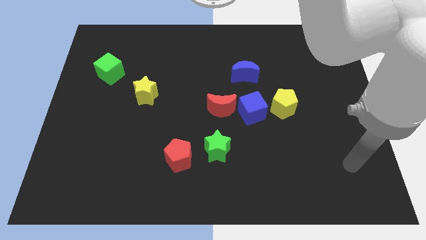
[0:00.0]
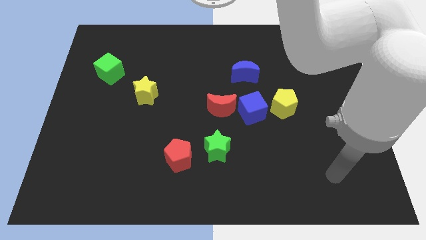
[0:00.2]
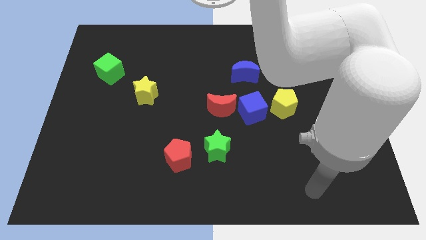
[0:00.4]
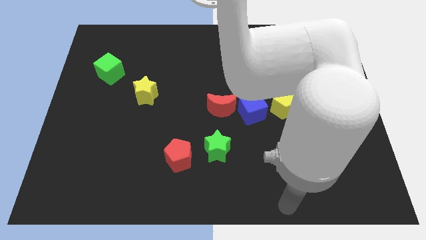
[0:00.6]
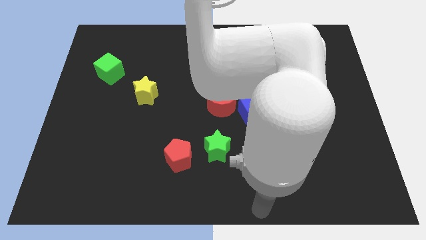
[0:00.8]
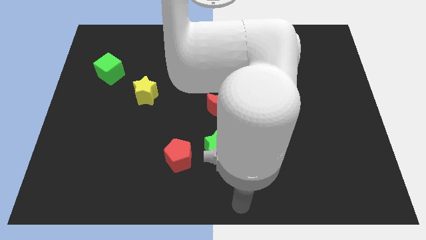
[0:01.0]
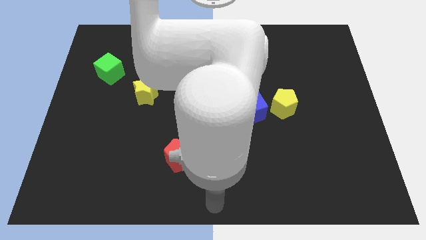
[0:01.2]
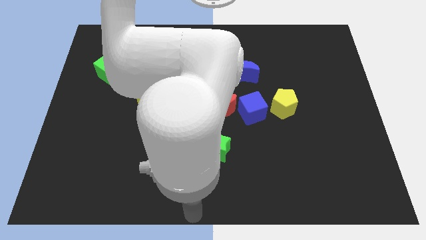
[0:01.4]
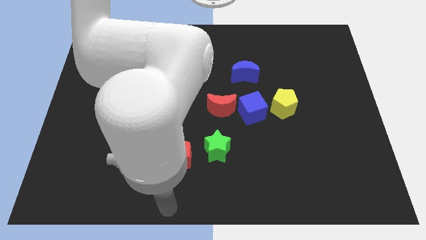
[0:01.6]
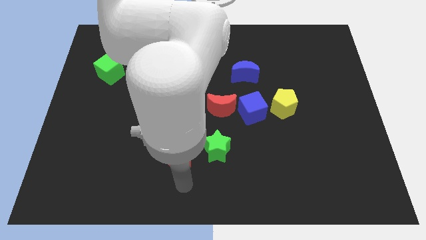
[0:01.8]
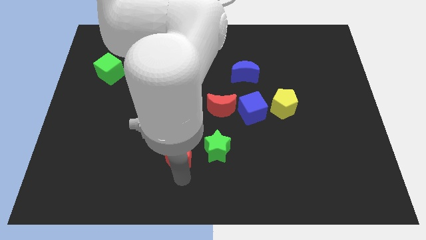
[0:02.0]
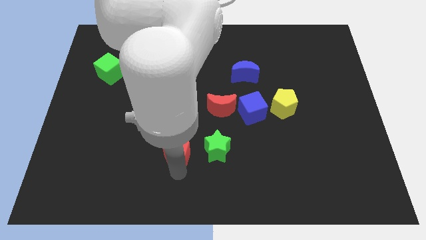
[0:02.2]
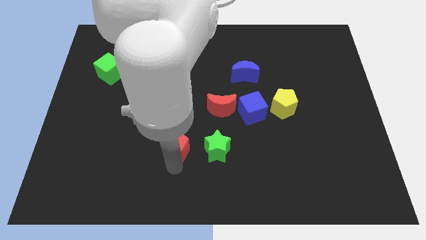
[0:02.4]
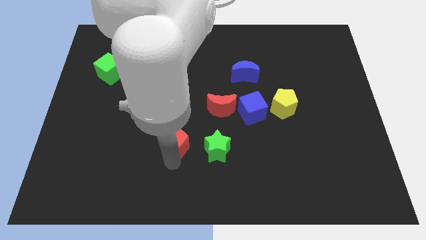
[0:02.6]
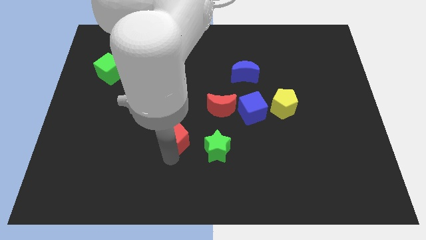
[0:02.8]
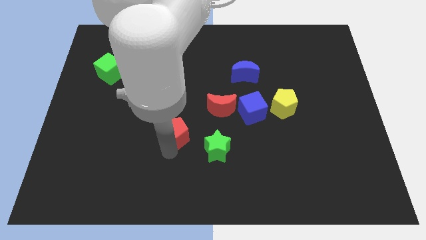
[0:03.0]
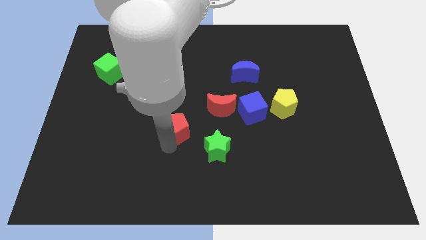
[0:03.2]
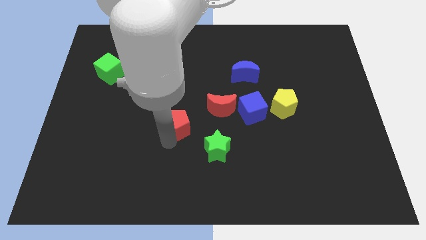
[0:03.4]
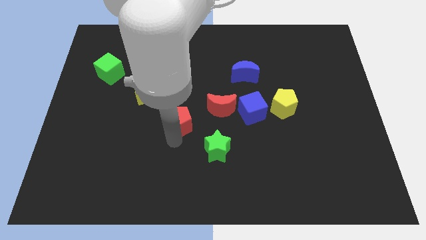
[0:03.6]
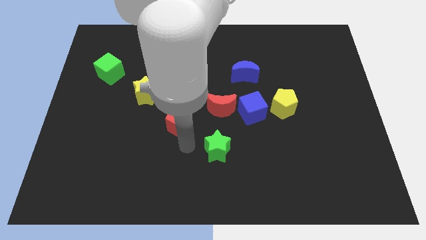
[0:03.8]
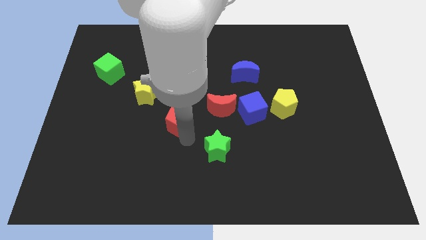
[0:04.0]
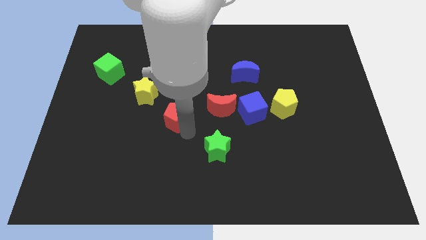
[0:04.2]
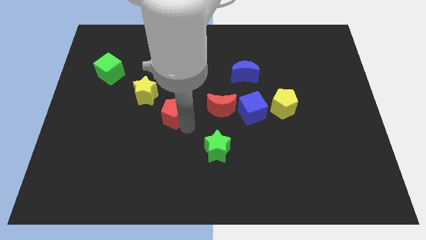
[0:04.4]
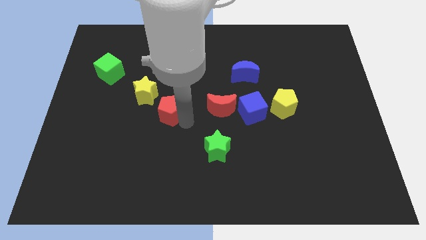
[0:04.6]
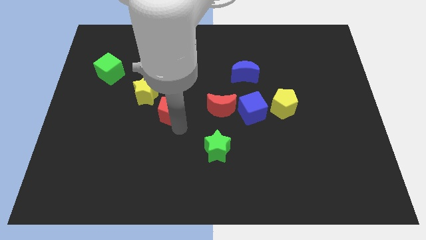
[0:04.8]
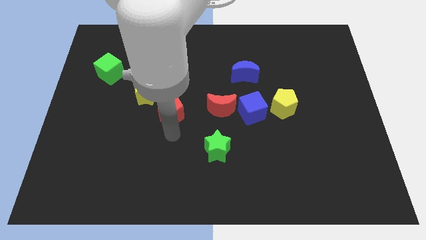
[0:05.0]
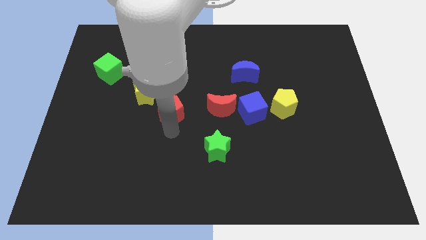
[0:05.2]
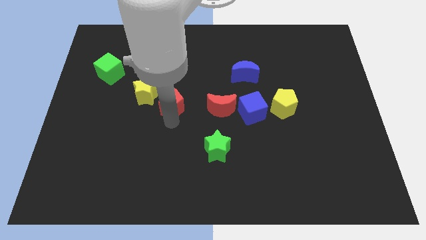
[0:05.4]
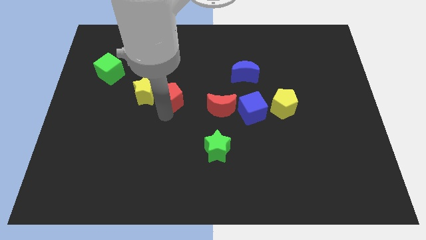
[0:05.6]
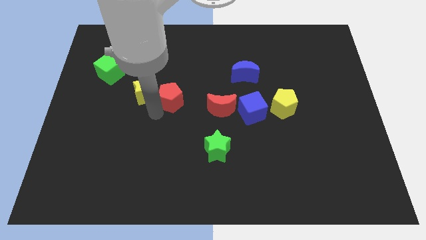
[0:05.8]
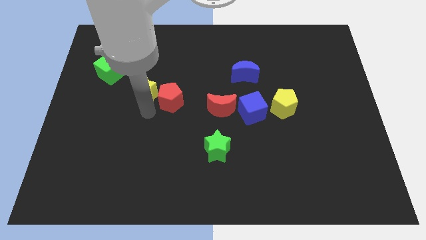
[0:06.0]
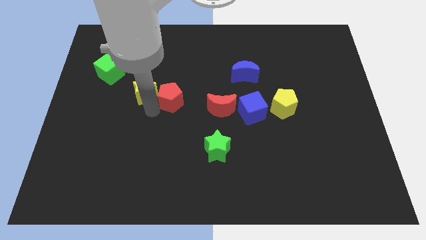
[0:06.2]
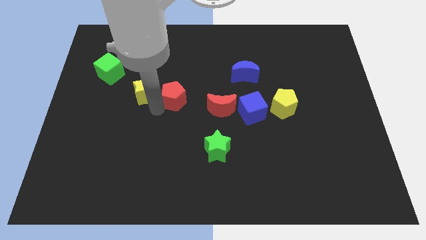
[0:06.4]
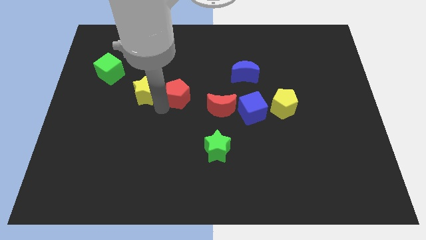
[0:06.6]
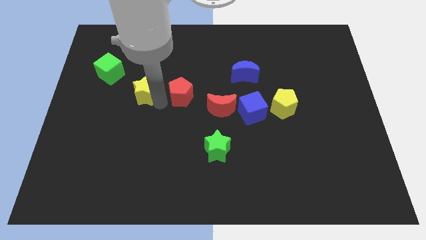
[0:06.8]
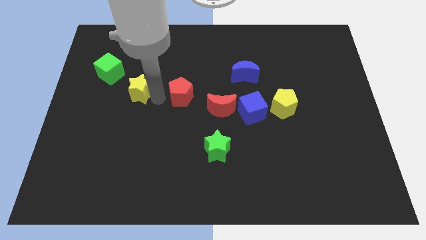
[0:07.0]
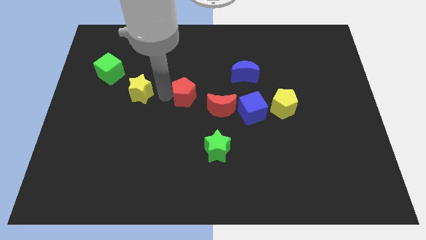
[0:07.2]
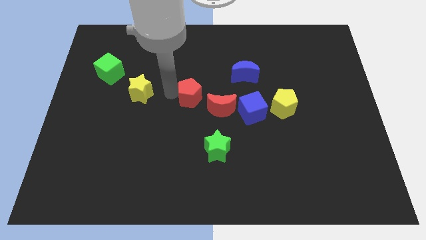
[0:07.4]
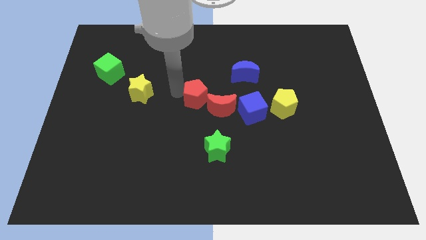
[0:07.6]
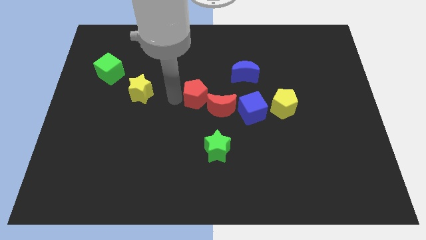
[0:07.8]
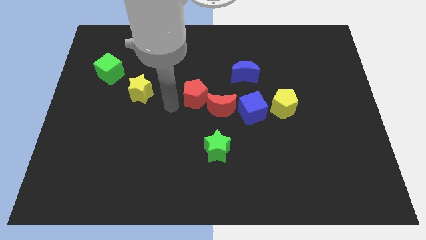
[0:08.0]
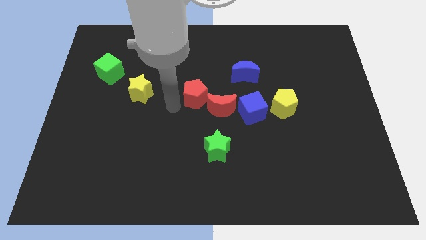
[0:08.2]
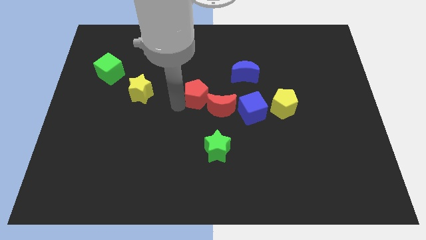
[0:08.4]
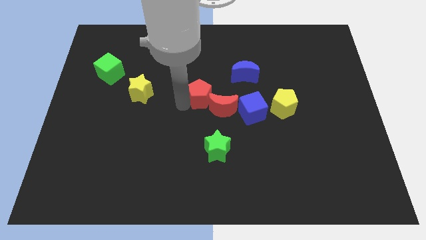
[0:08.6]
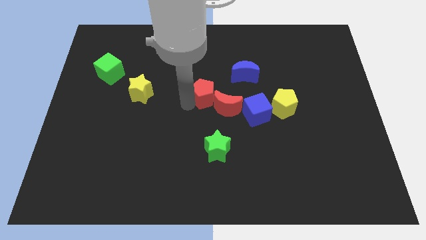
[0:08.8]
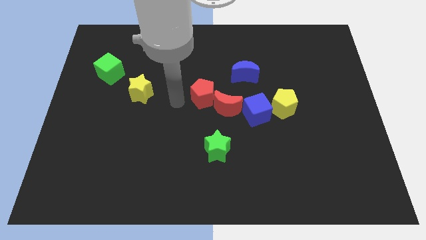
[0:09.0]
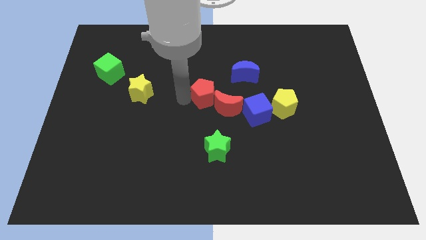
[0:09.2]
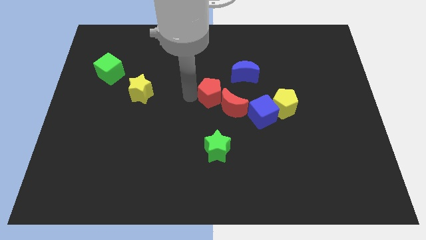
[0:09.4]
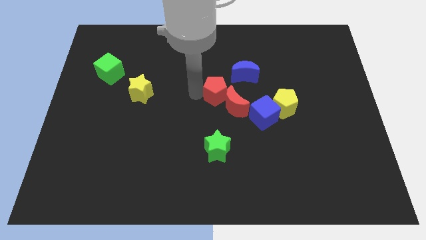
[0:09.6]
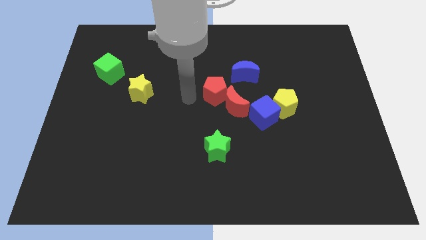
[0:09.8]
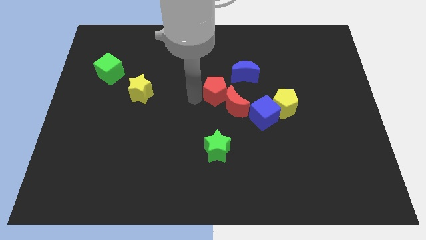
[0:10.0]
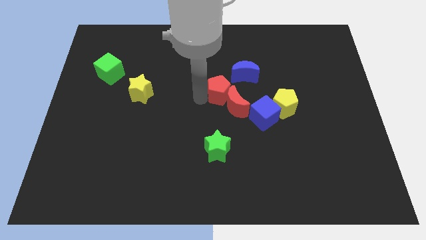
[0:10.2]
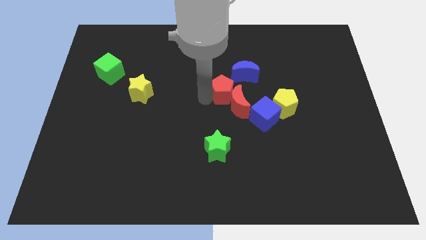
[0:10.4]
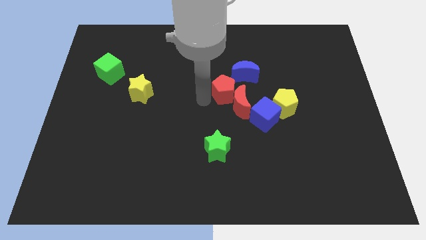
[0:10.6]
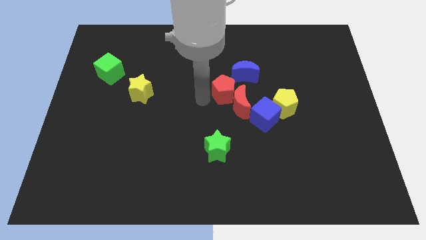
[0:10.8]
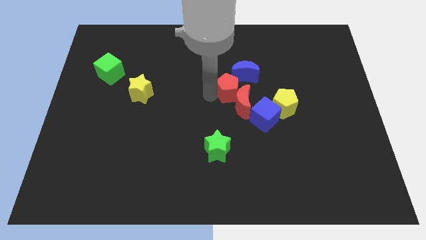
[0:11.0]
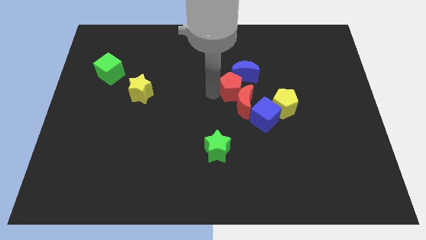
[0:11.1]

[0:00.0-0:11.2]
push the red pentagon diagonally upwards and right

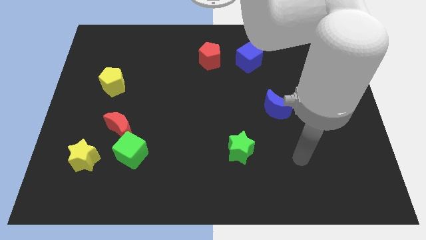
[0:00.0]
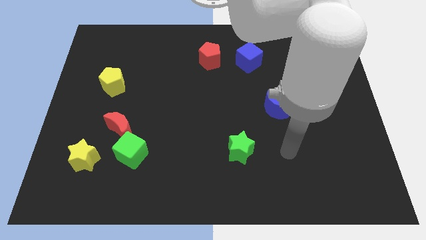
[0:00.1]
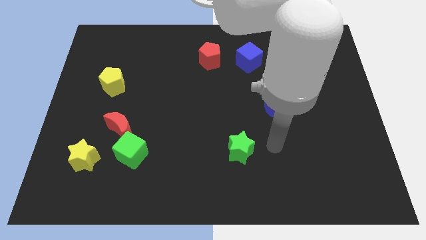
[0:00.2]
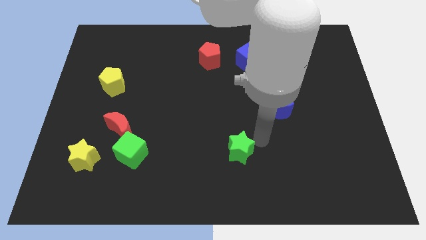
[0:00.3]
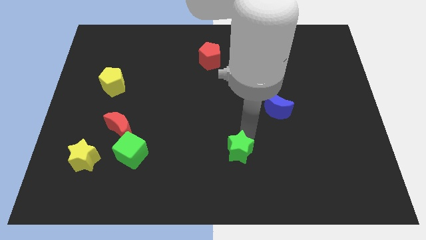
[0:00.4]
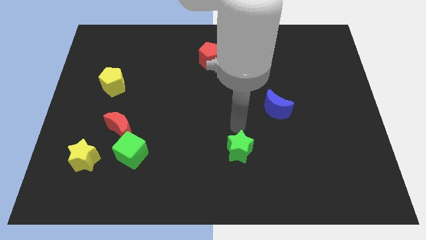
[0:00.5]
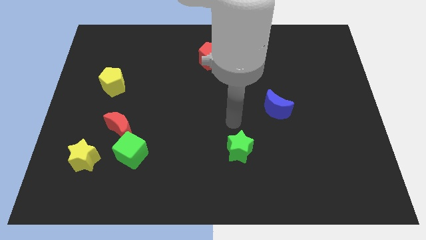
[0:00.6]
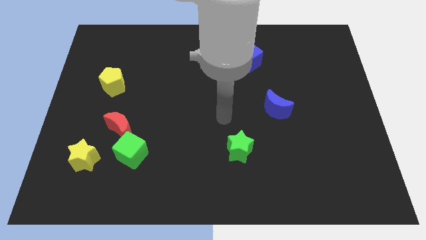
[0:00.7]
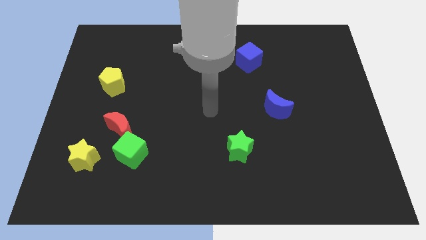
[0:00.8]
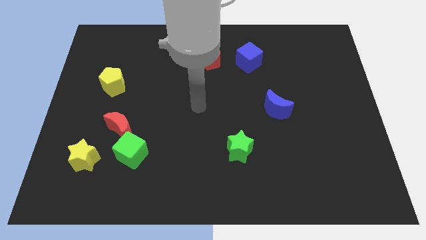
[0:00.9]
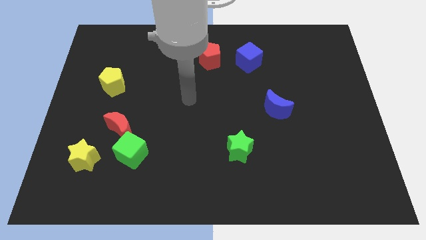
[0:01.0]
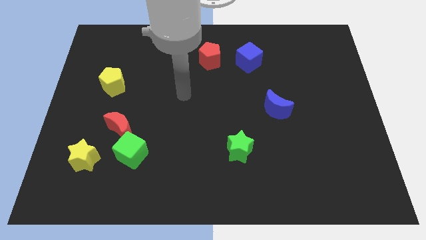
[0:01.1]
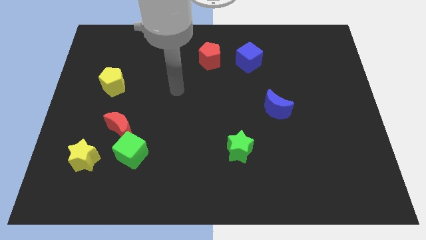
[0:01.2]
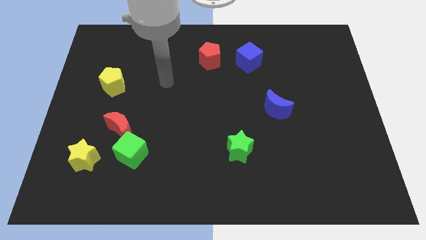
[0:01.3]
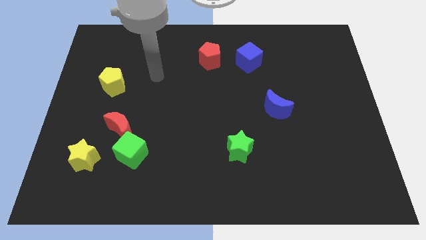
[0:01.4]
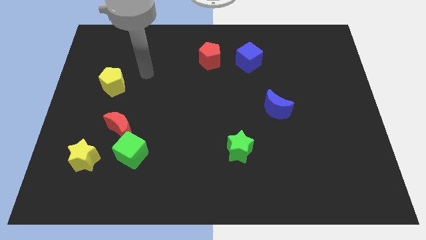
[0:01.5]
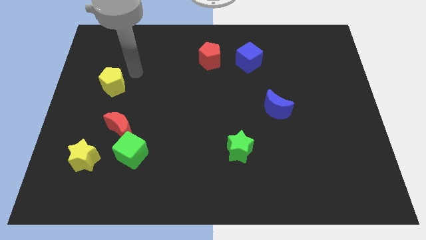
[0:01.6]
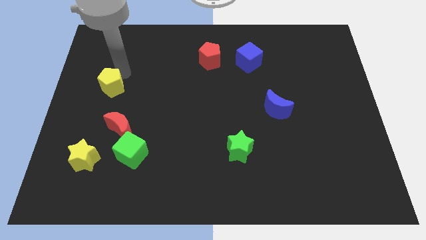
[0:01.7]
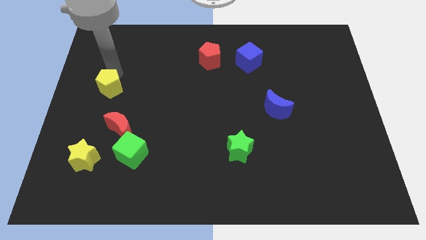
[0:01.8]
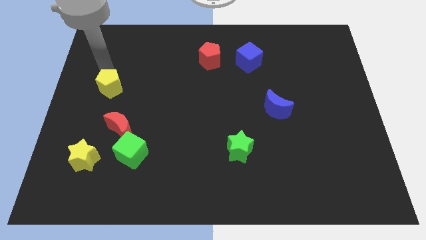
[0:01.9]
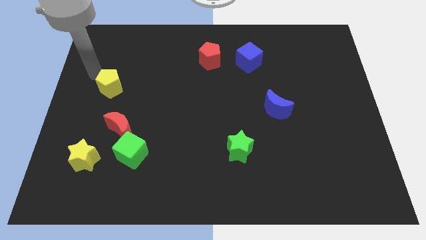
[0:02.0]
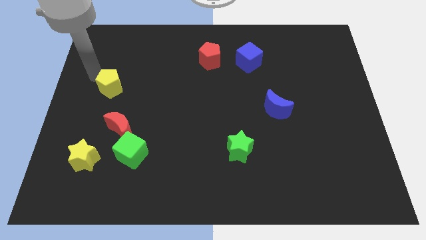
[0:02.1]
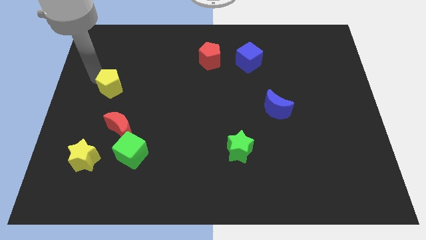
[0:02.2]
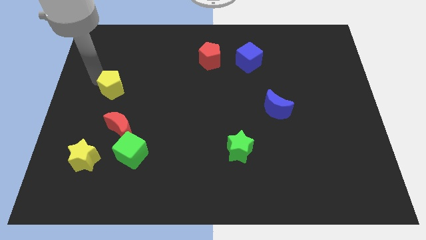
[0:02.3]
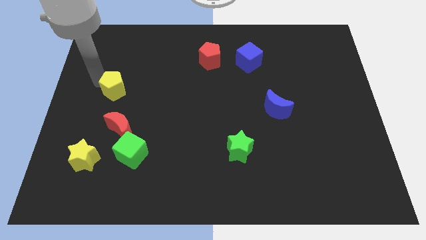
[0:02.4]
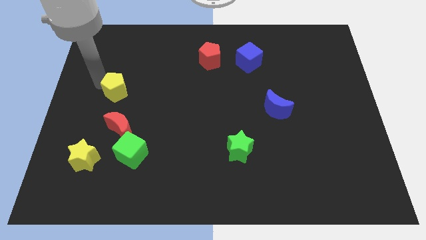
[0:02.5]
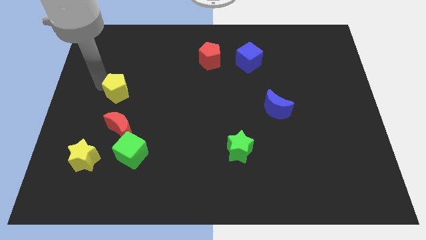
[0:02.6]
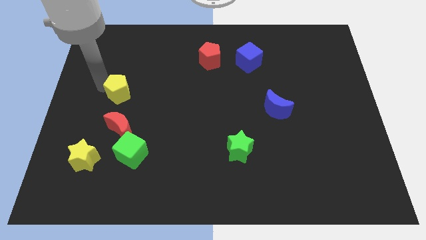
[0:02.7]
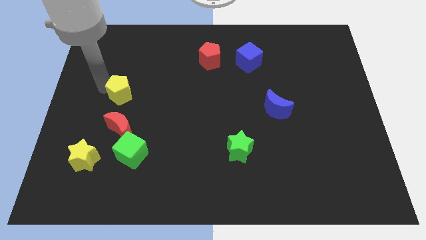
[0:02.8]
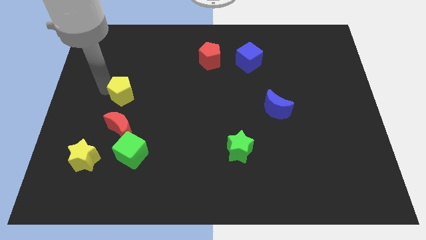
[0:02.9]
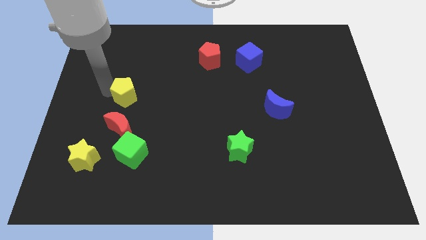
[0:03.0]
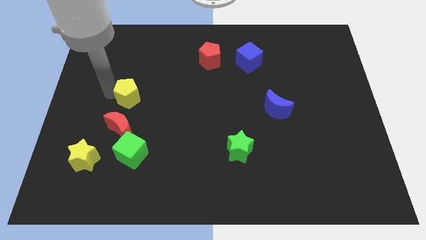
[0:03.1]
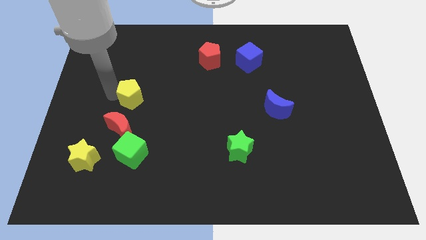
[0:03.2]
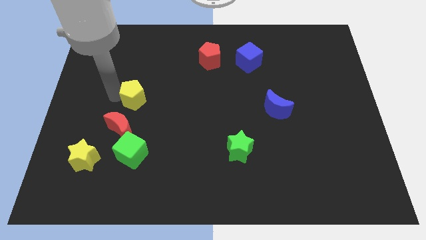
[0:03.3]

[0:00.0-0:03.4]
move the yellow pentagon down and then to the right a bit
